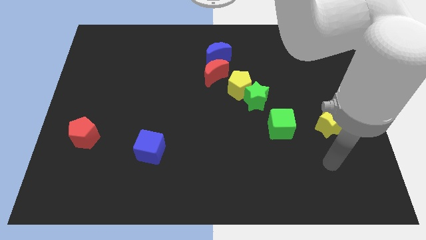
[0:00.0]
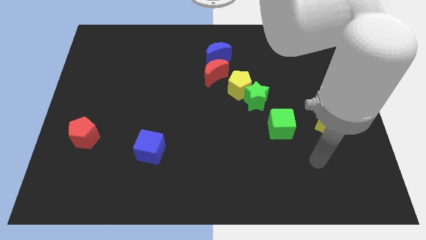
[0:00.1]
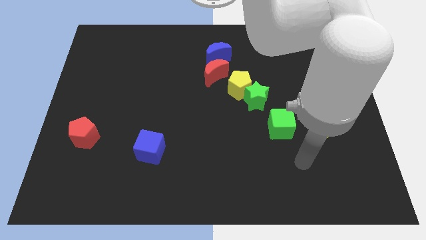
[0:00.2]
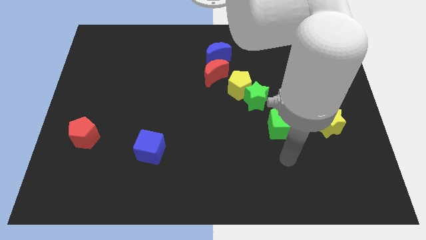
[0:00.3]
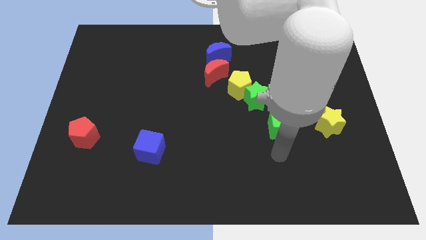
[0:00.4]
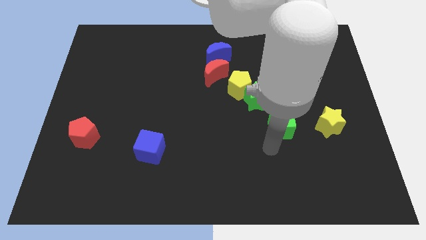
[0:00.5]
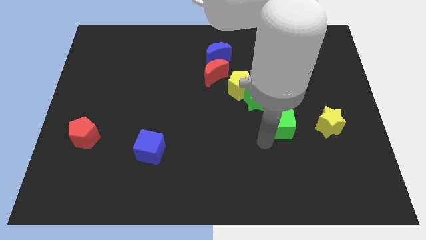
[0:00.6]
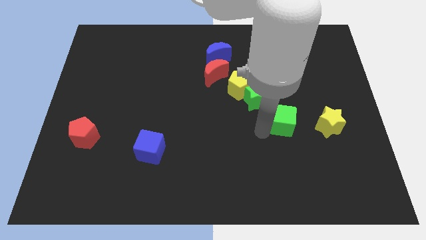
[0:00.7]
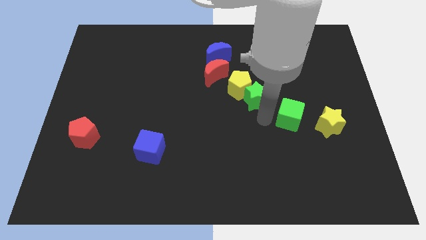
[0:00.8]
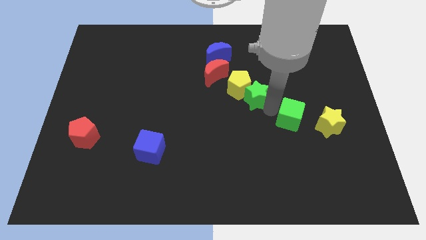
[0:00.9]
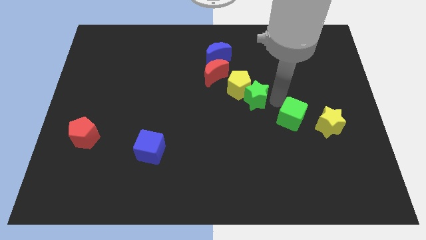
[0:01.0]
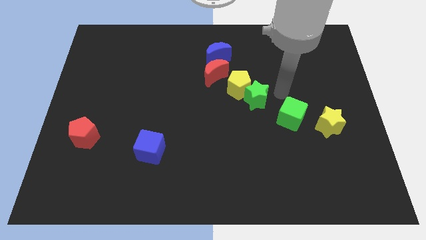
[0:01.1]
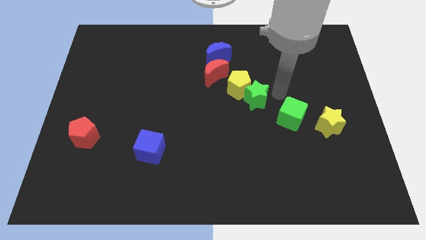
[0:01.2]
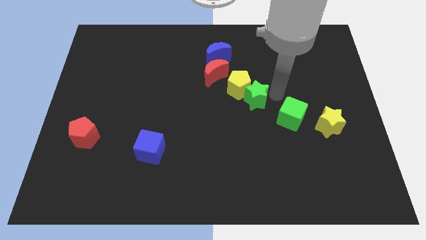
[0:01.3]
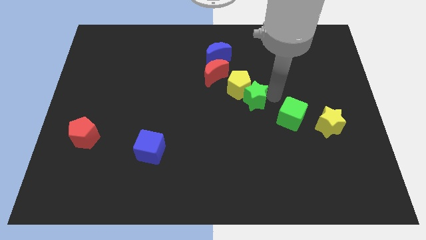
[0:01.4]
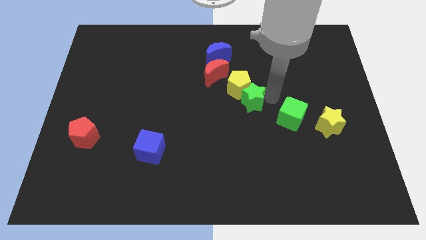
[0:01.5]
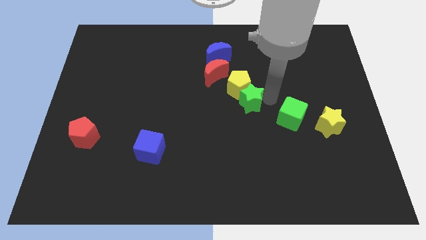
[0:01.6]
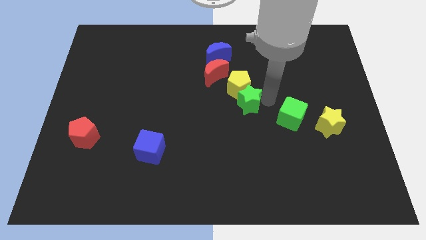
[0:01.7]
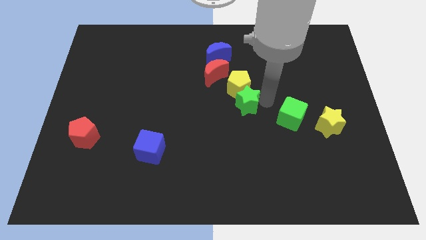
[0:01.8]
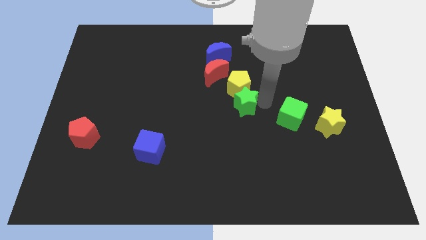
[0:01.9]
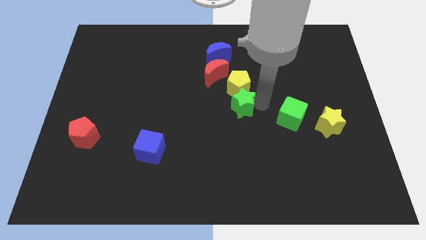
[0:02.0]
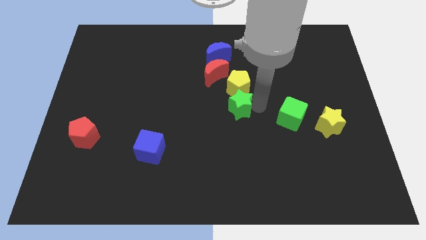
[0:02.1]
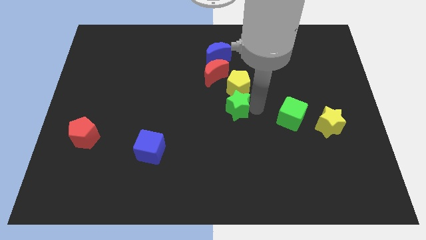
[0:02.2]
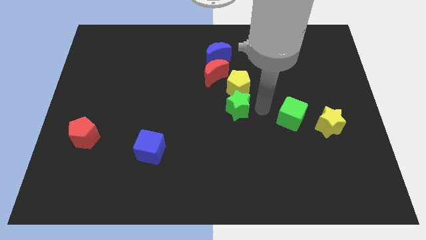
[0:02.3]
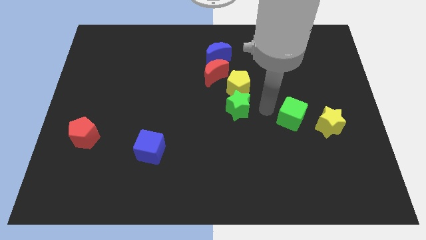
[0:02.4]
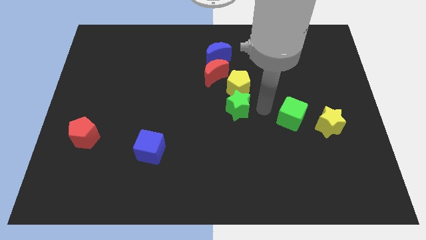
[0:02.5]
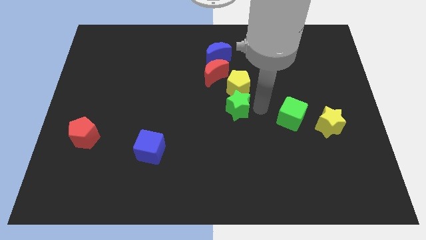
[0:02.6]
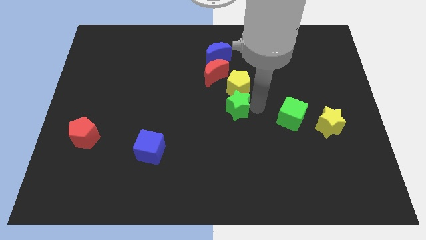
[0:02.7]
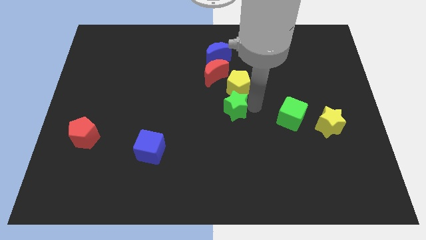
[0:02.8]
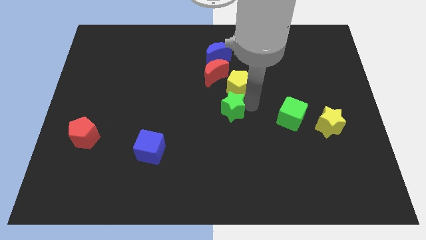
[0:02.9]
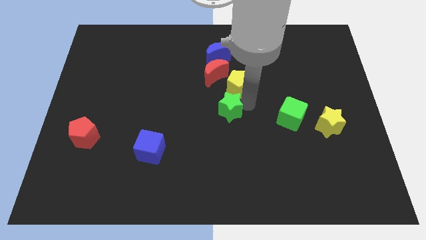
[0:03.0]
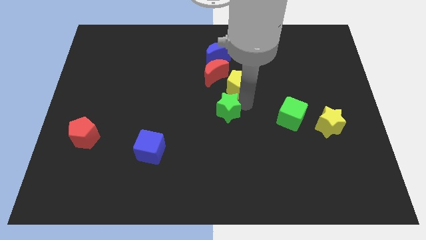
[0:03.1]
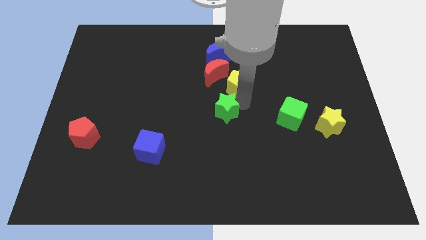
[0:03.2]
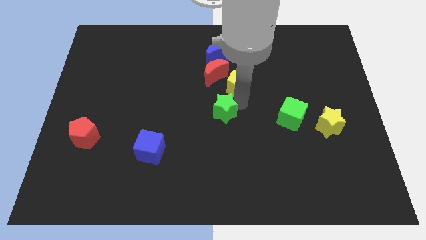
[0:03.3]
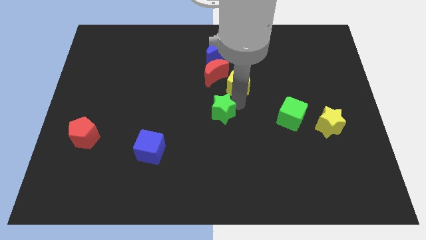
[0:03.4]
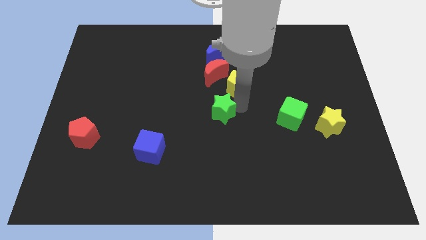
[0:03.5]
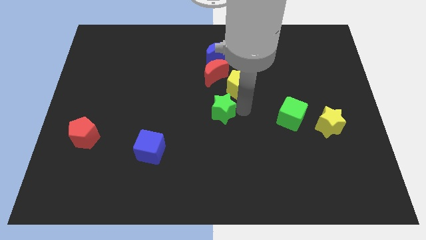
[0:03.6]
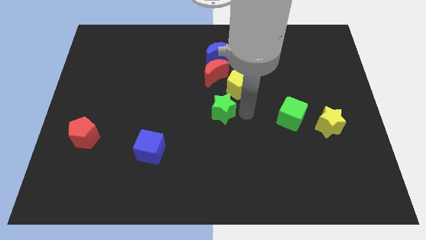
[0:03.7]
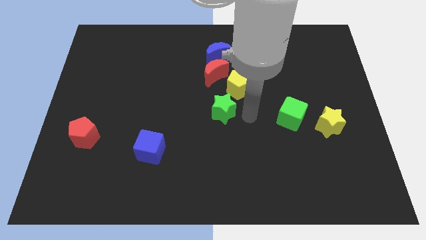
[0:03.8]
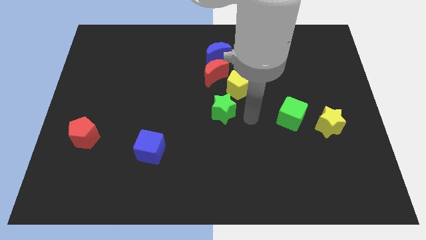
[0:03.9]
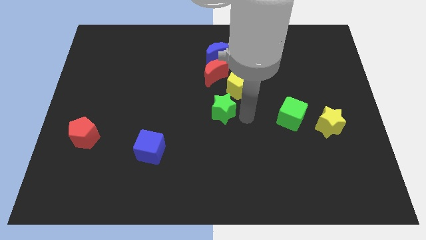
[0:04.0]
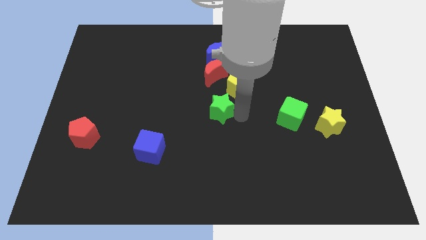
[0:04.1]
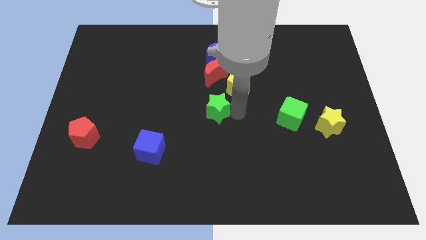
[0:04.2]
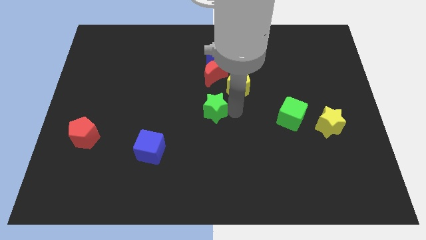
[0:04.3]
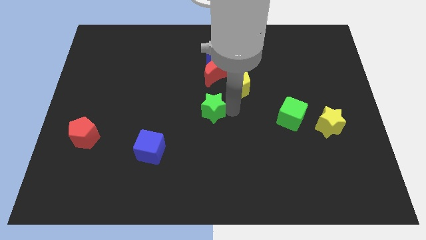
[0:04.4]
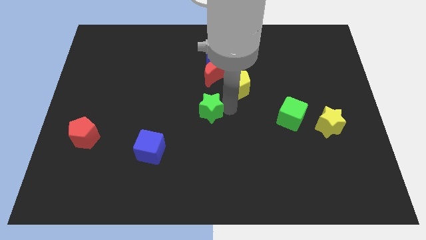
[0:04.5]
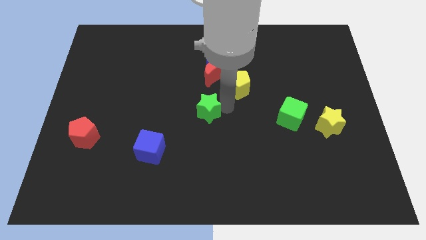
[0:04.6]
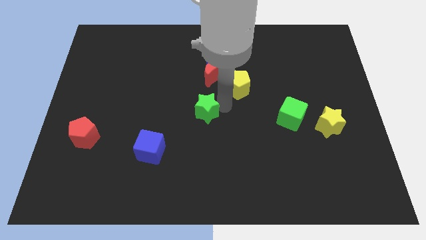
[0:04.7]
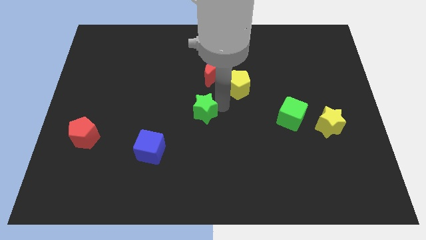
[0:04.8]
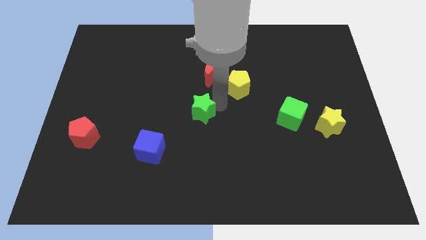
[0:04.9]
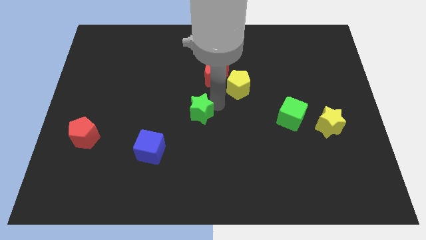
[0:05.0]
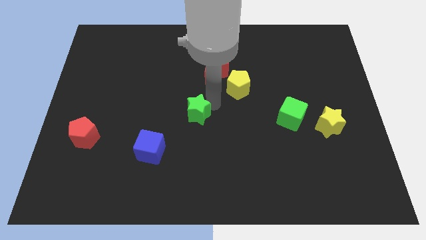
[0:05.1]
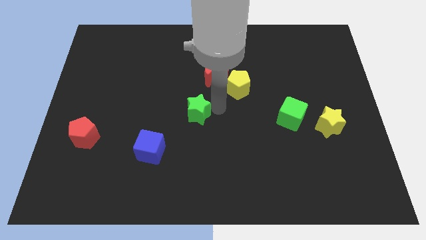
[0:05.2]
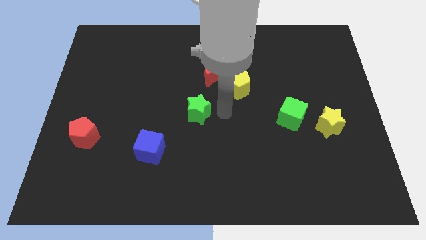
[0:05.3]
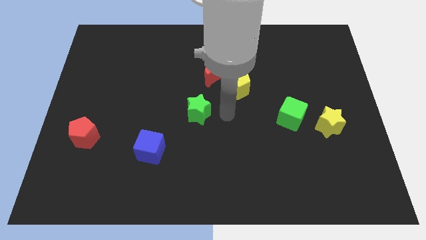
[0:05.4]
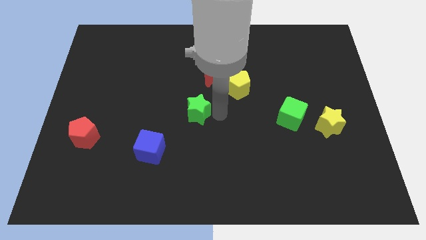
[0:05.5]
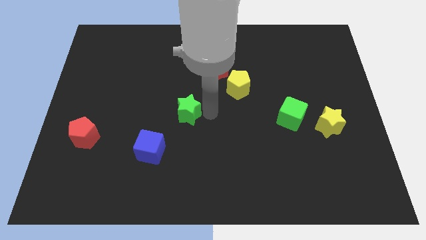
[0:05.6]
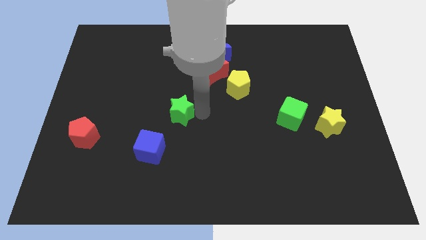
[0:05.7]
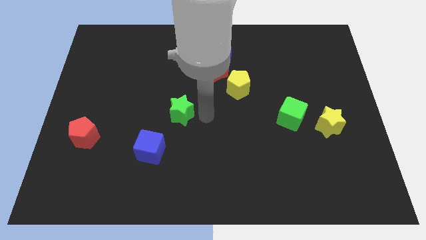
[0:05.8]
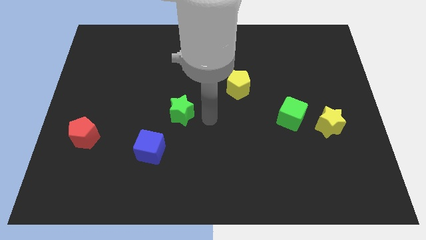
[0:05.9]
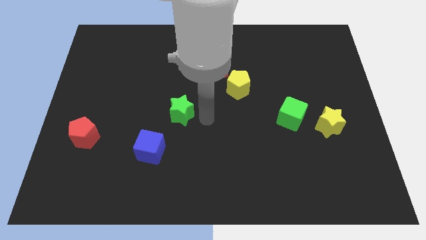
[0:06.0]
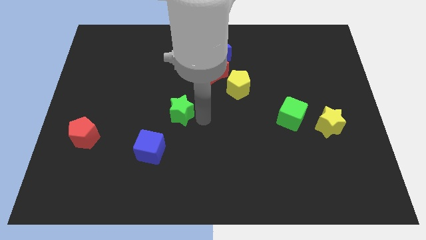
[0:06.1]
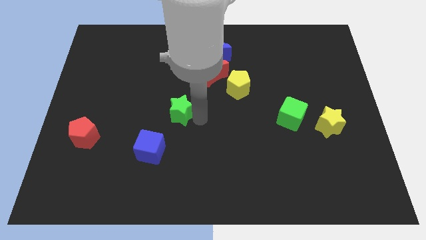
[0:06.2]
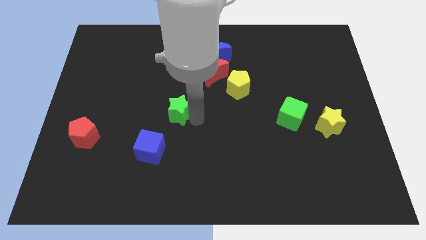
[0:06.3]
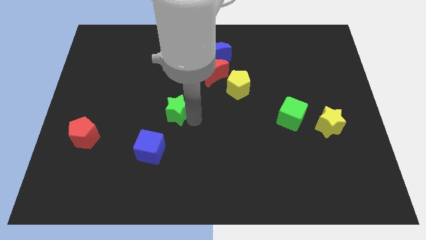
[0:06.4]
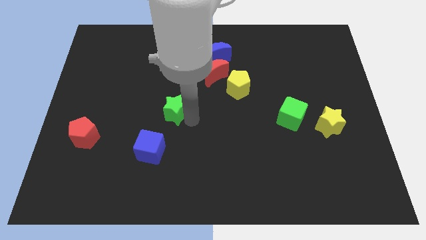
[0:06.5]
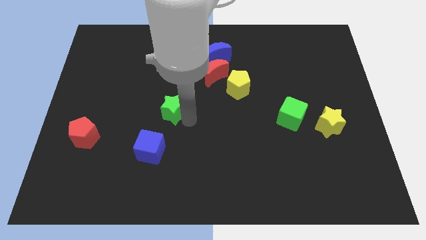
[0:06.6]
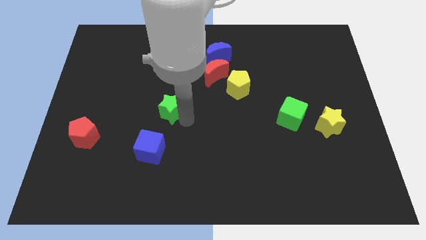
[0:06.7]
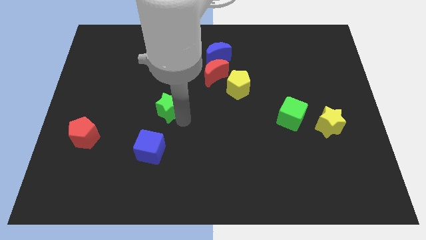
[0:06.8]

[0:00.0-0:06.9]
push the green star to the left

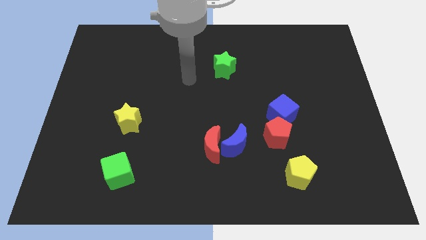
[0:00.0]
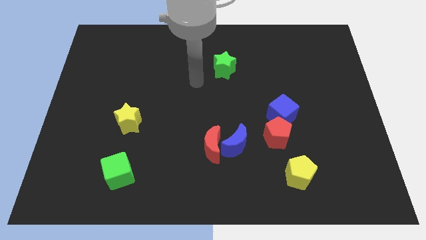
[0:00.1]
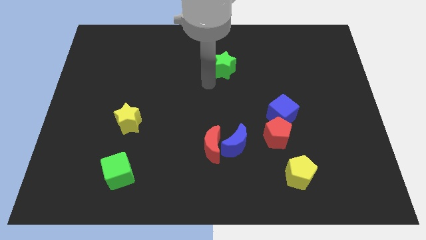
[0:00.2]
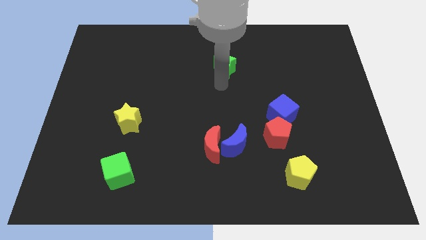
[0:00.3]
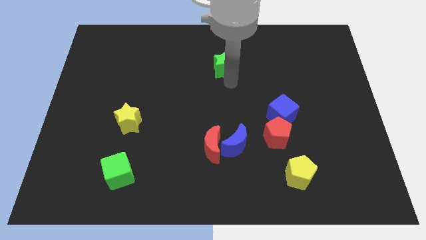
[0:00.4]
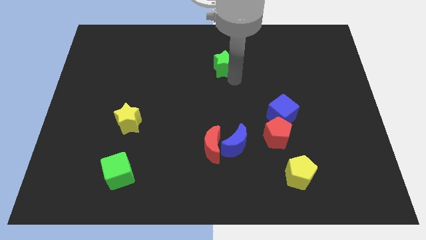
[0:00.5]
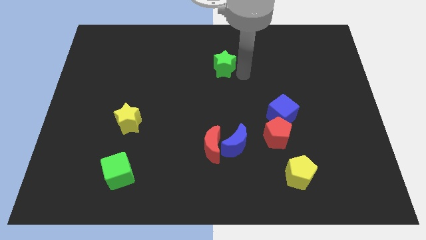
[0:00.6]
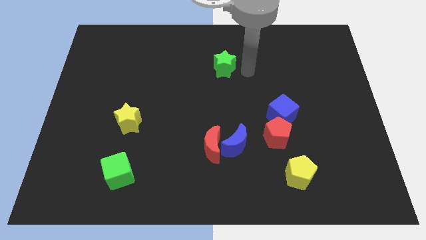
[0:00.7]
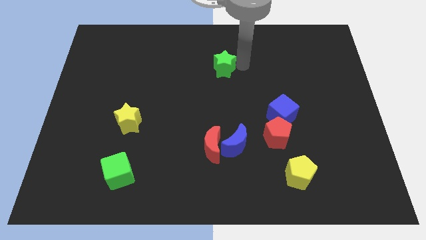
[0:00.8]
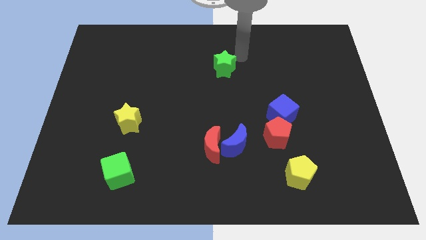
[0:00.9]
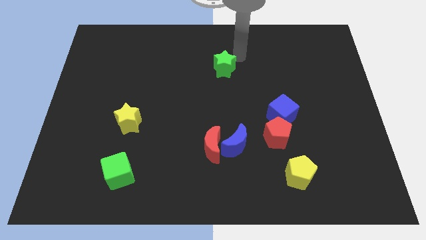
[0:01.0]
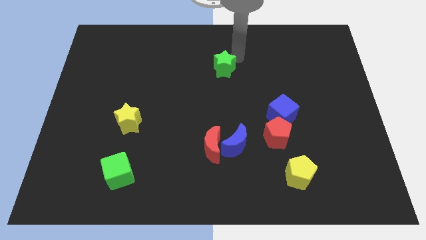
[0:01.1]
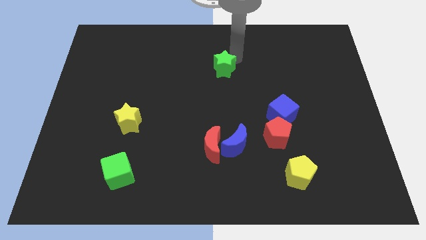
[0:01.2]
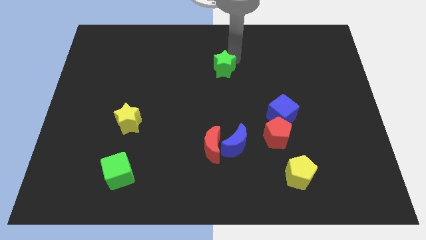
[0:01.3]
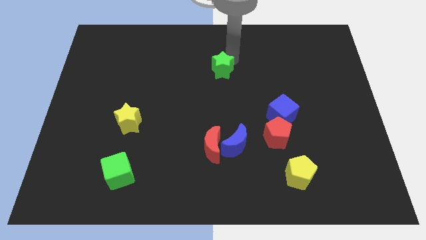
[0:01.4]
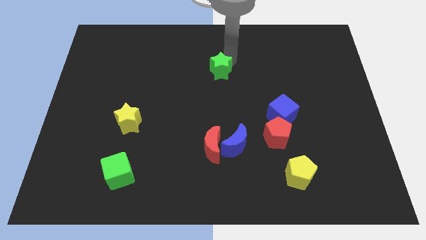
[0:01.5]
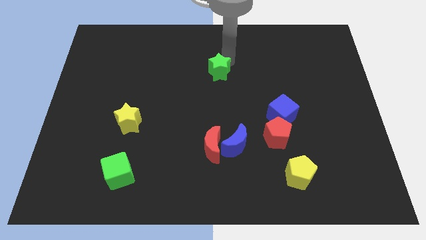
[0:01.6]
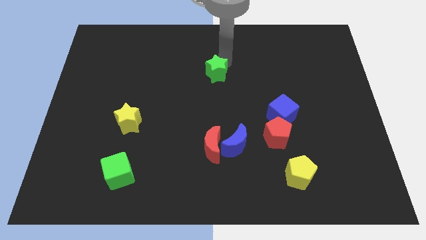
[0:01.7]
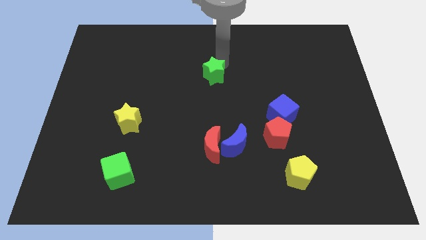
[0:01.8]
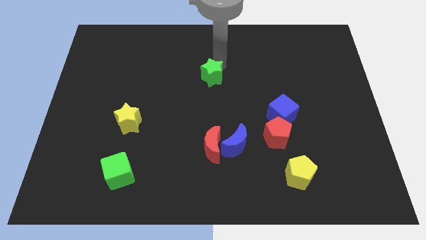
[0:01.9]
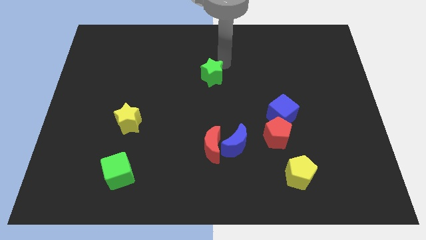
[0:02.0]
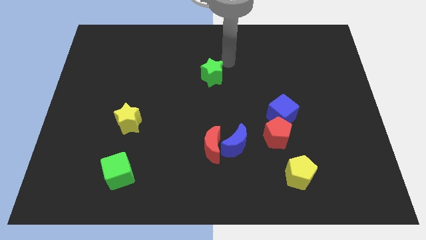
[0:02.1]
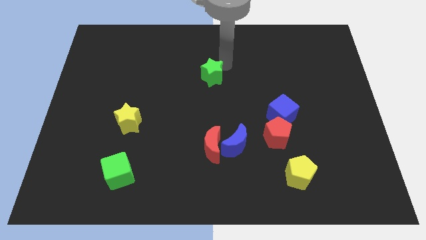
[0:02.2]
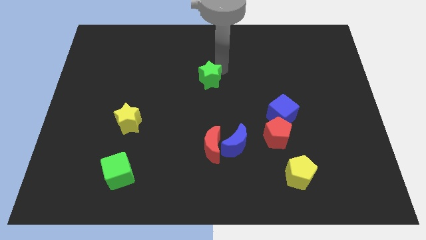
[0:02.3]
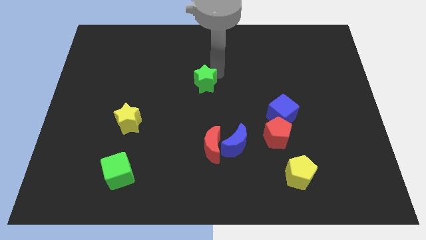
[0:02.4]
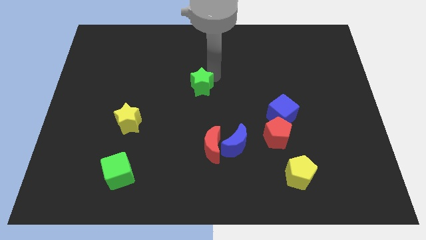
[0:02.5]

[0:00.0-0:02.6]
slightly slide the green star diagonally down and to the left
